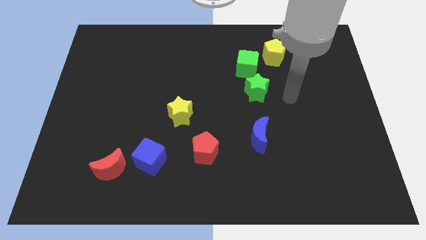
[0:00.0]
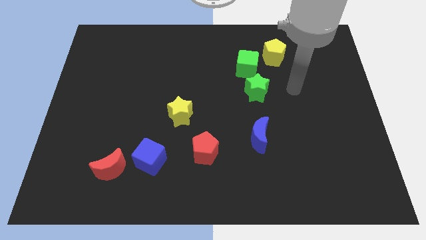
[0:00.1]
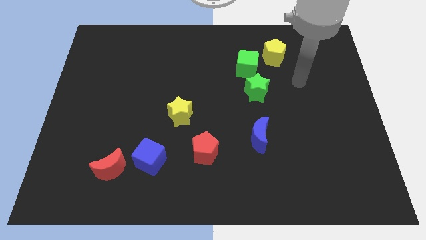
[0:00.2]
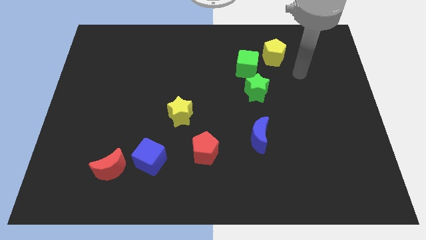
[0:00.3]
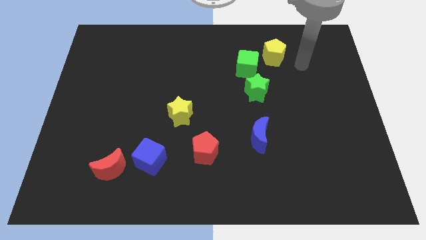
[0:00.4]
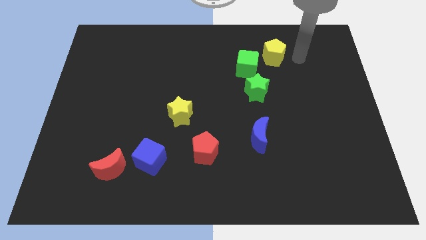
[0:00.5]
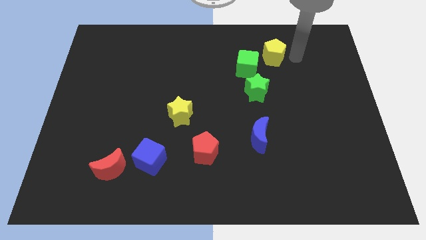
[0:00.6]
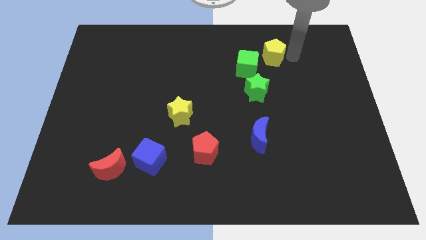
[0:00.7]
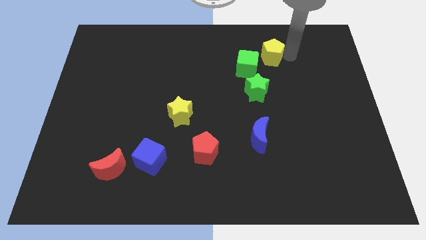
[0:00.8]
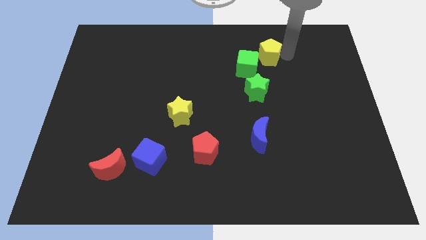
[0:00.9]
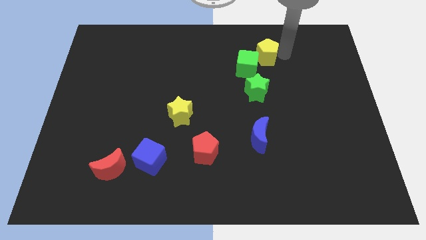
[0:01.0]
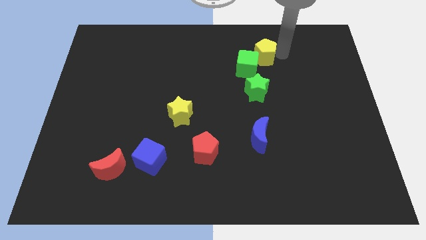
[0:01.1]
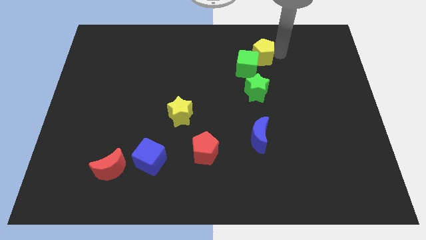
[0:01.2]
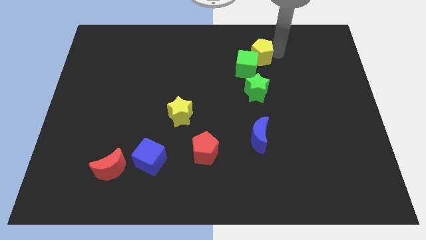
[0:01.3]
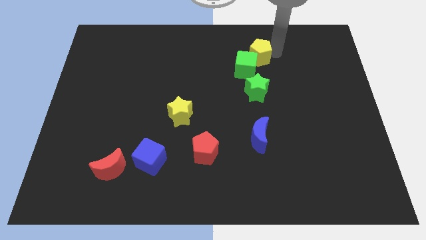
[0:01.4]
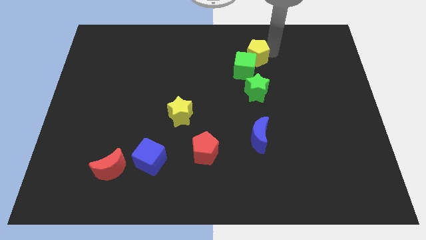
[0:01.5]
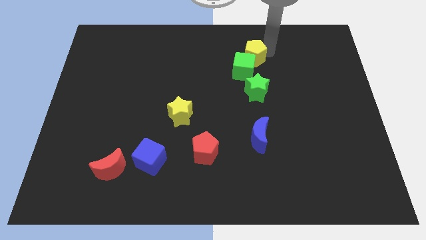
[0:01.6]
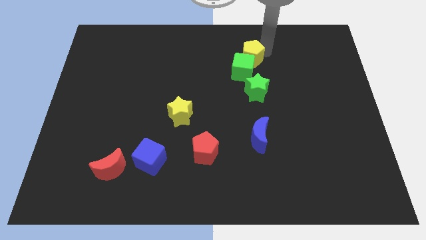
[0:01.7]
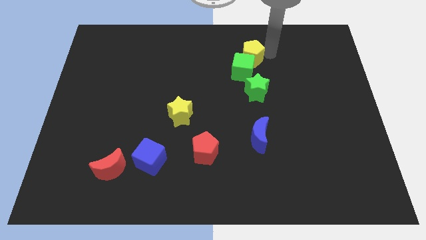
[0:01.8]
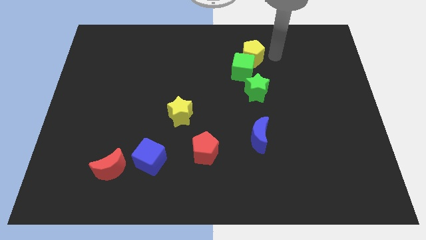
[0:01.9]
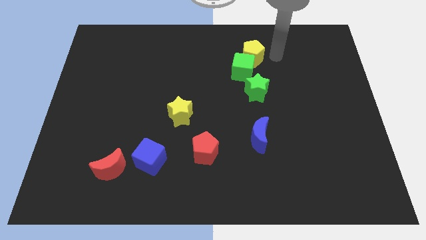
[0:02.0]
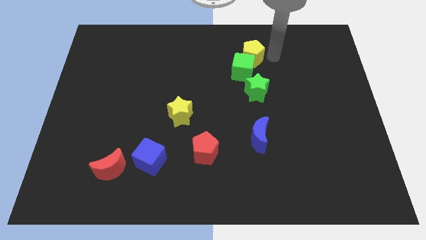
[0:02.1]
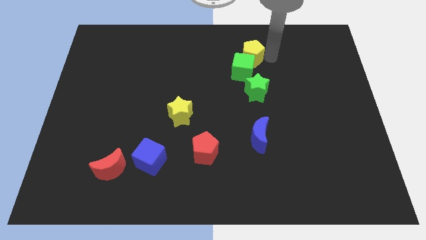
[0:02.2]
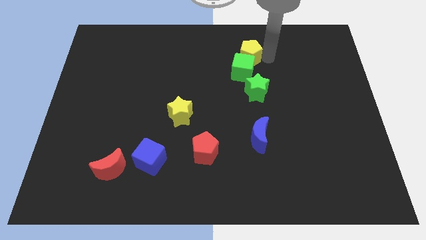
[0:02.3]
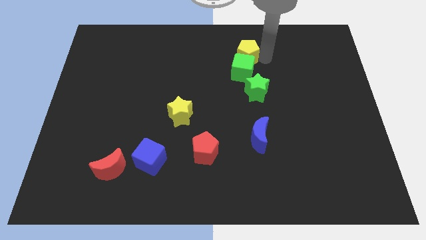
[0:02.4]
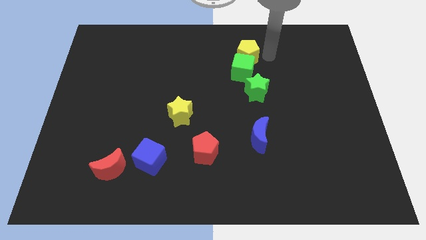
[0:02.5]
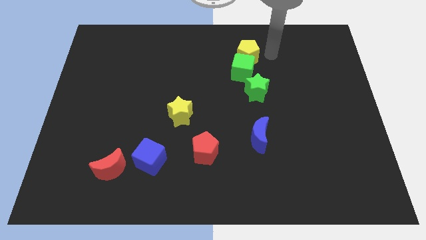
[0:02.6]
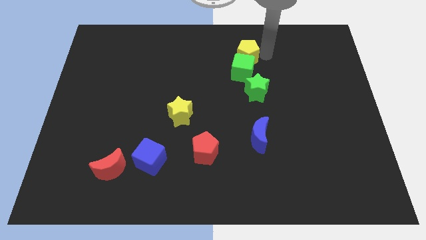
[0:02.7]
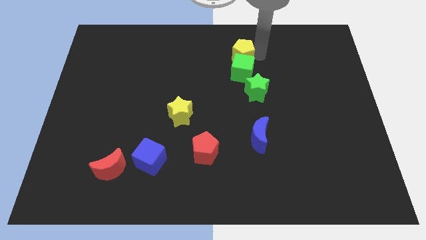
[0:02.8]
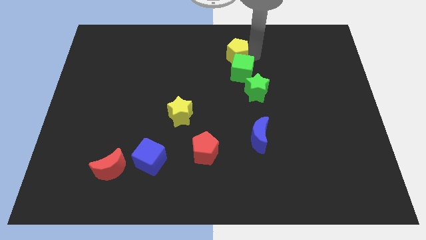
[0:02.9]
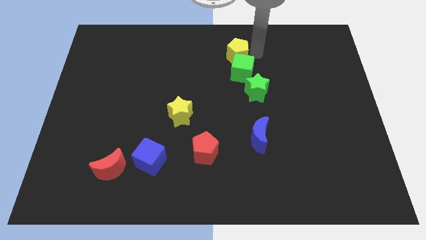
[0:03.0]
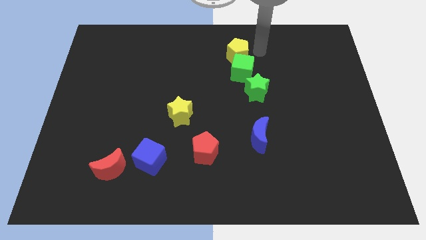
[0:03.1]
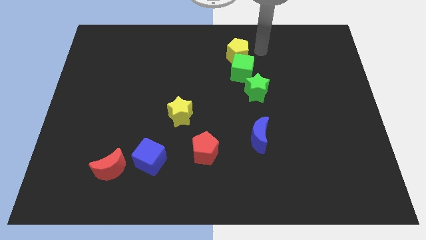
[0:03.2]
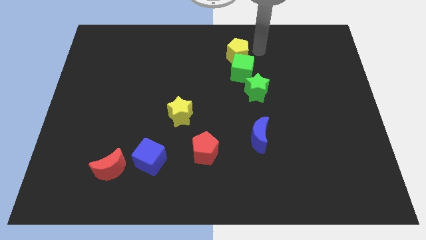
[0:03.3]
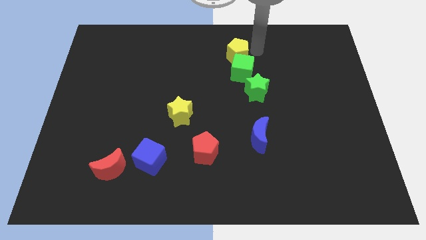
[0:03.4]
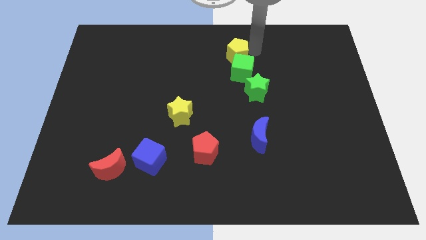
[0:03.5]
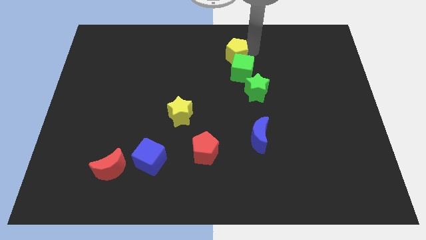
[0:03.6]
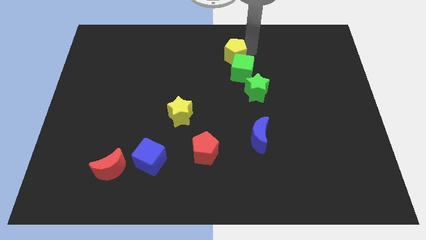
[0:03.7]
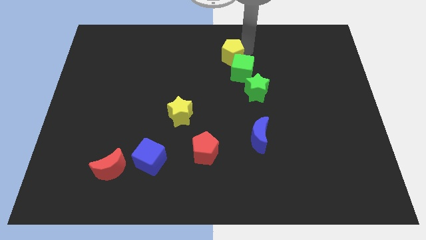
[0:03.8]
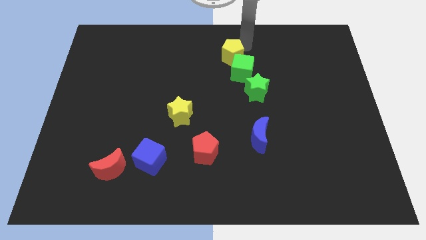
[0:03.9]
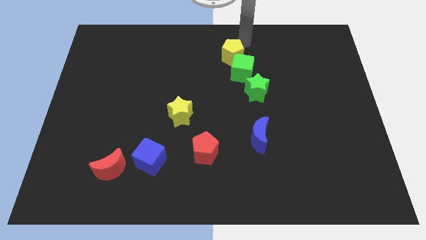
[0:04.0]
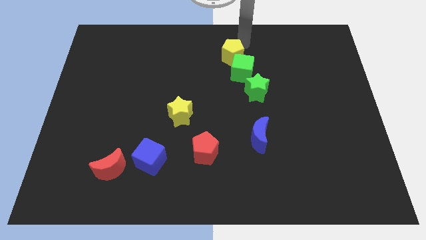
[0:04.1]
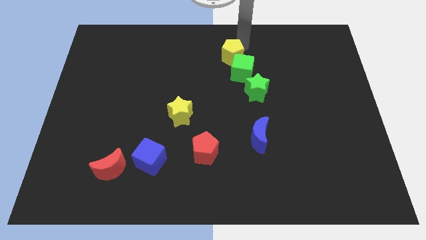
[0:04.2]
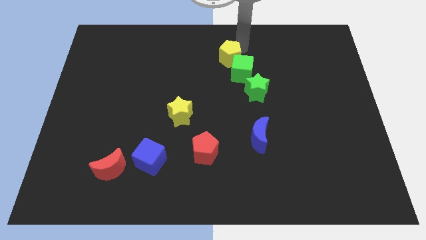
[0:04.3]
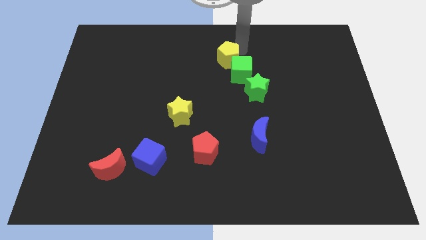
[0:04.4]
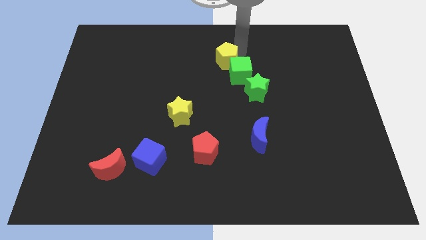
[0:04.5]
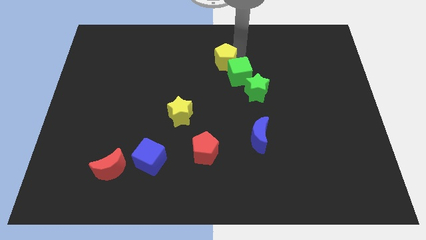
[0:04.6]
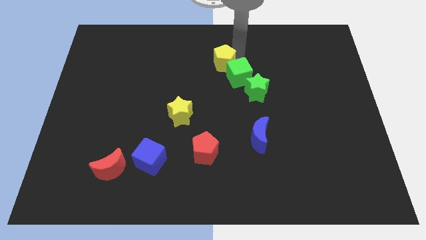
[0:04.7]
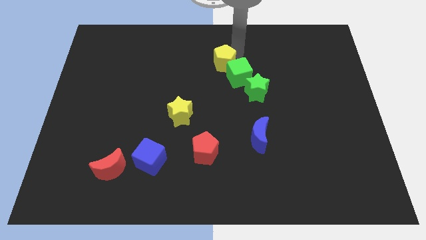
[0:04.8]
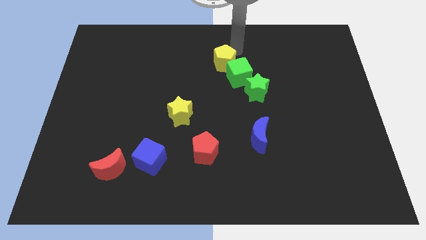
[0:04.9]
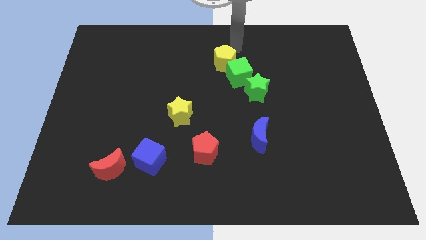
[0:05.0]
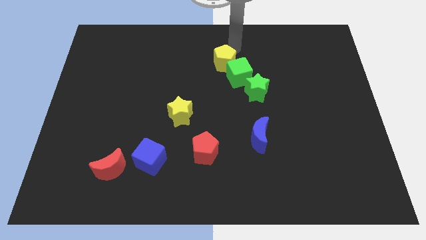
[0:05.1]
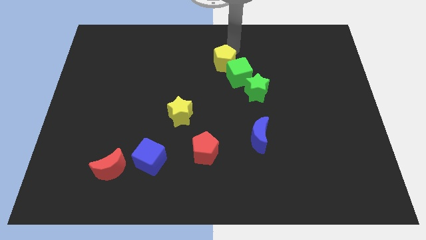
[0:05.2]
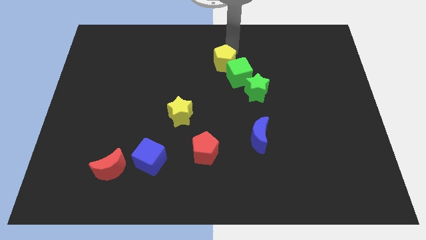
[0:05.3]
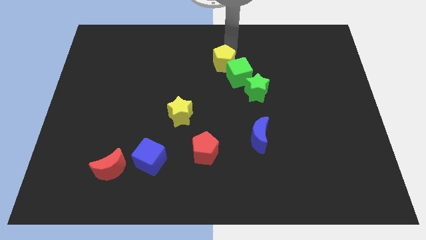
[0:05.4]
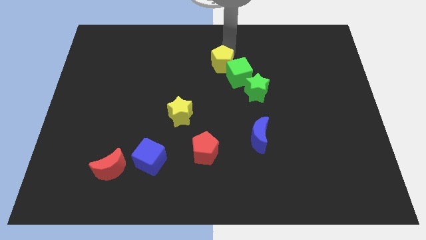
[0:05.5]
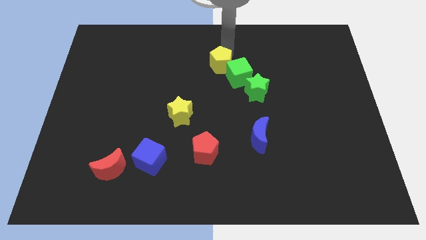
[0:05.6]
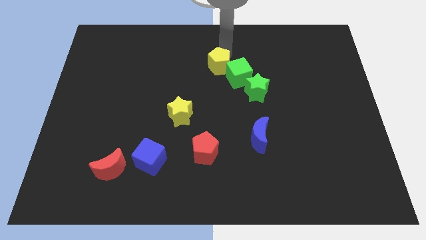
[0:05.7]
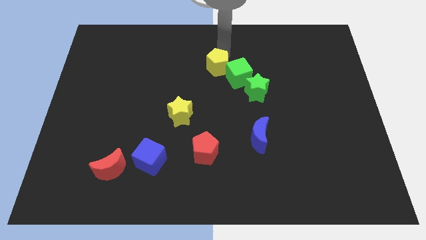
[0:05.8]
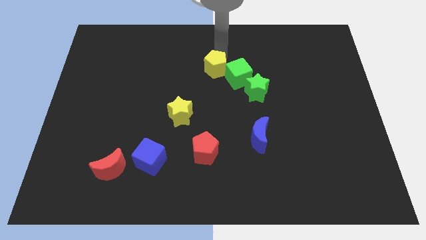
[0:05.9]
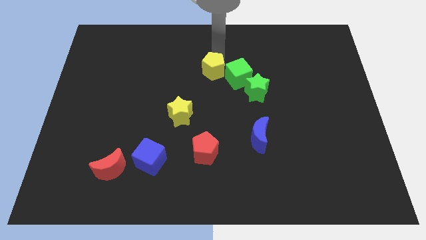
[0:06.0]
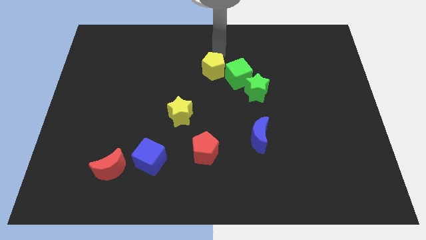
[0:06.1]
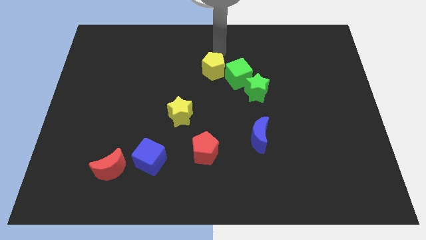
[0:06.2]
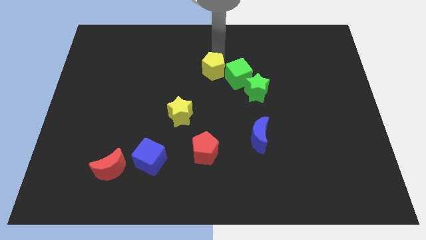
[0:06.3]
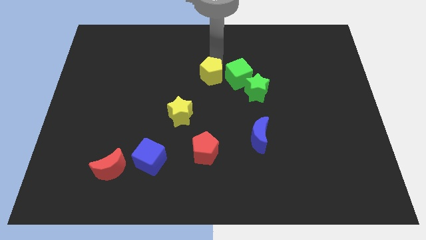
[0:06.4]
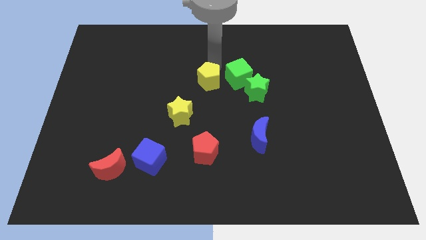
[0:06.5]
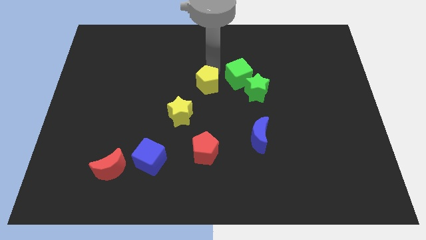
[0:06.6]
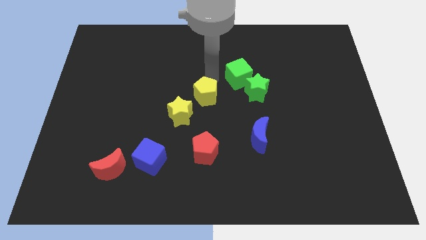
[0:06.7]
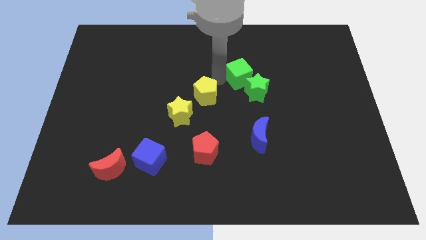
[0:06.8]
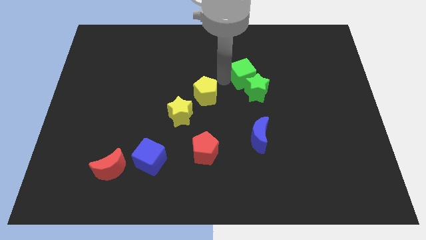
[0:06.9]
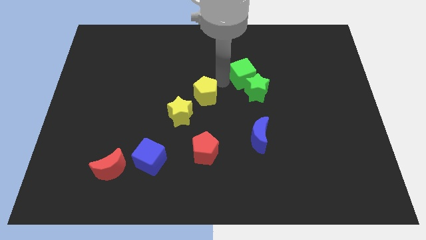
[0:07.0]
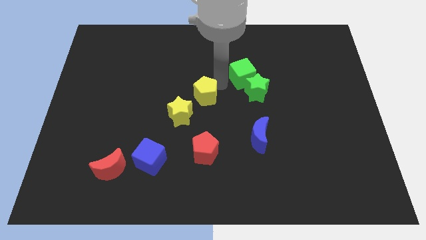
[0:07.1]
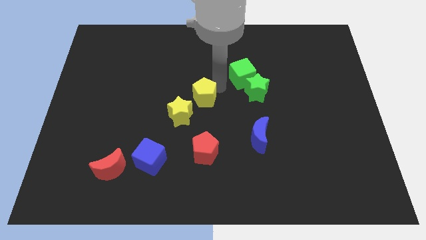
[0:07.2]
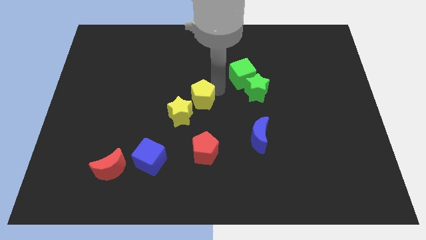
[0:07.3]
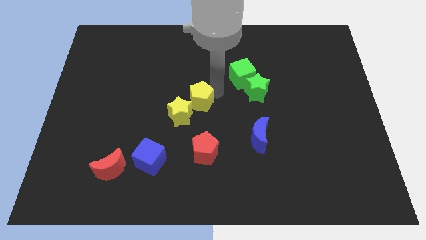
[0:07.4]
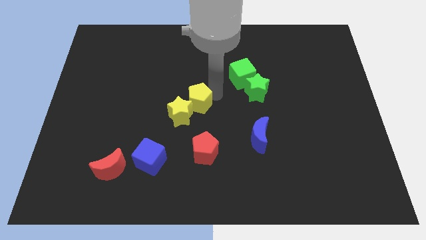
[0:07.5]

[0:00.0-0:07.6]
push the yellow pentagon towards the yellow star
